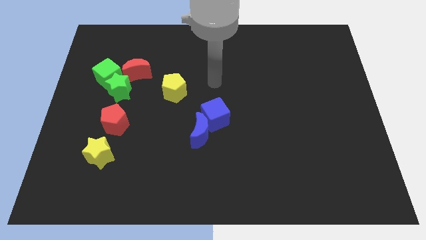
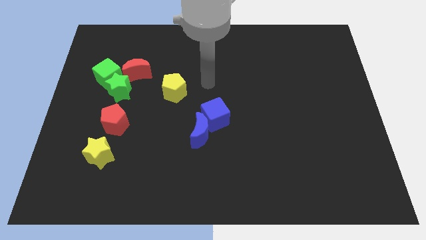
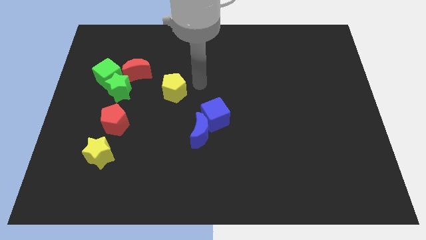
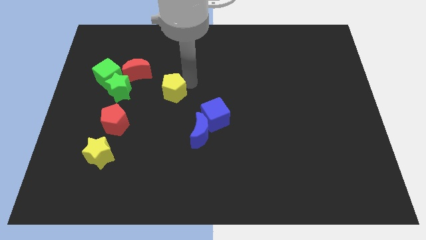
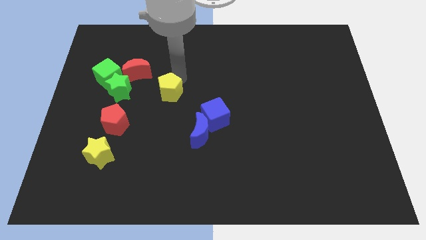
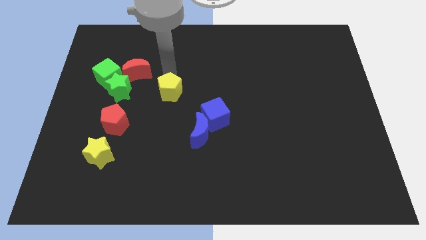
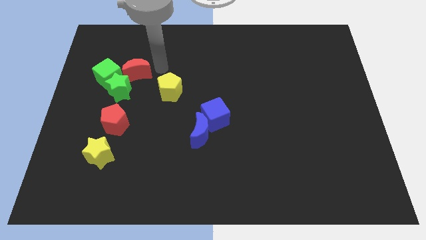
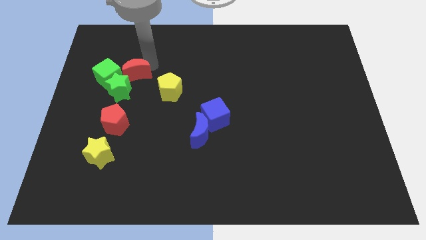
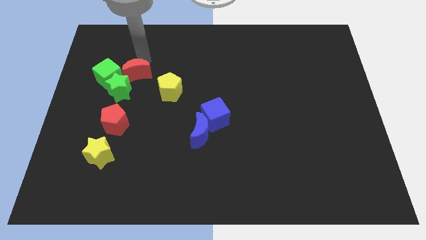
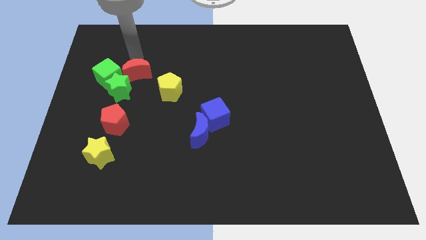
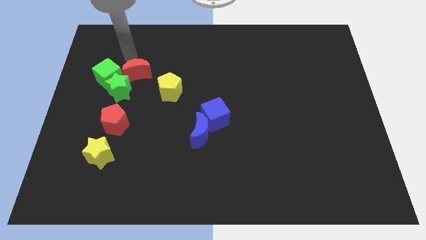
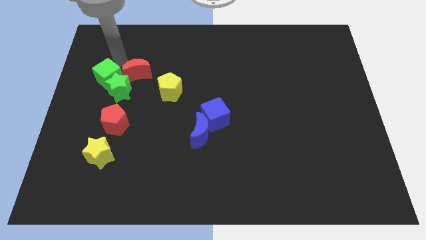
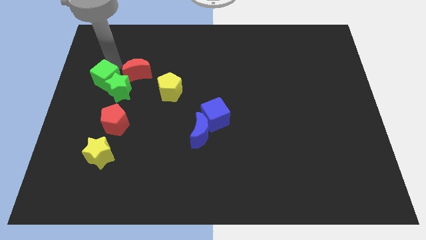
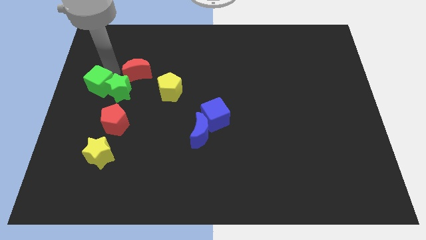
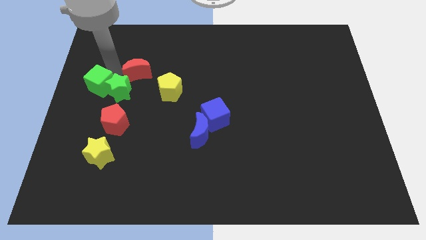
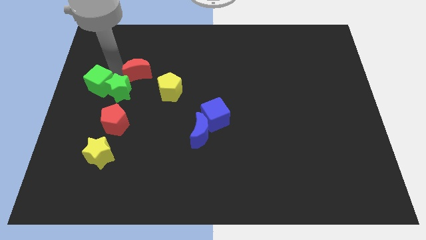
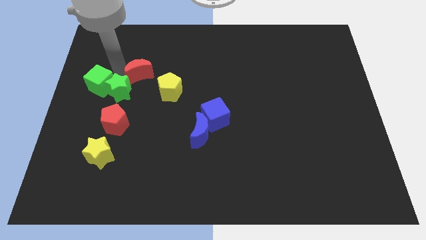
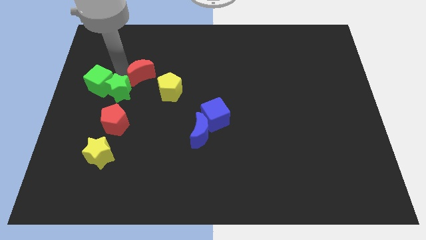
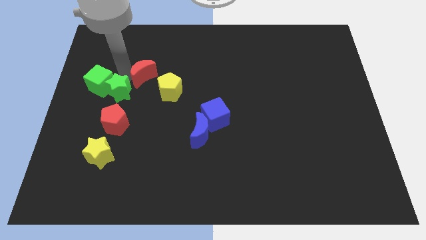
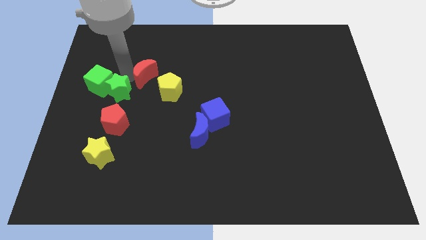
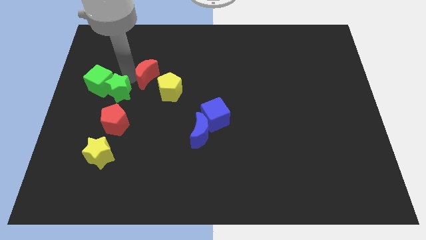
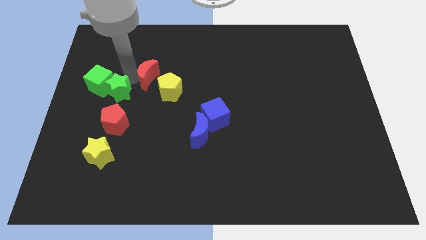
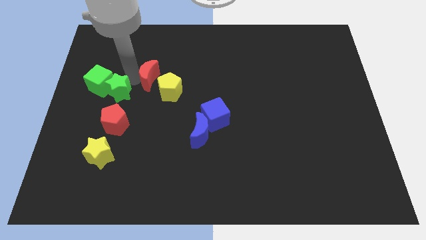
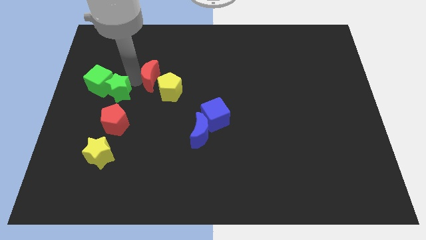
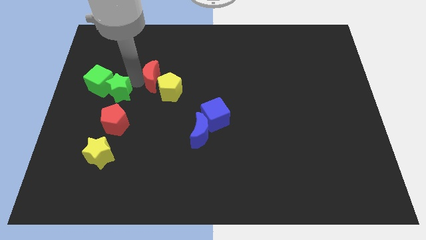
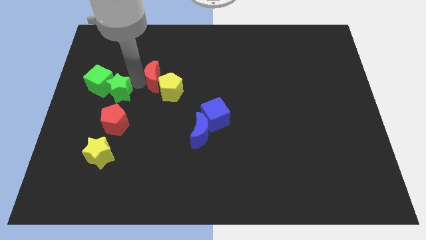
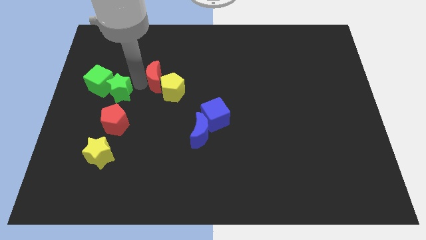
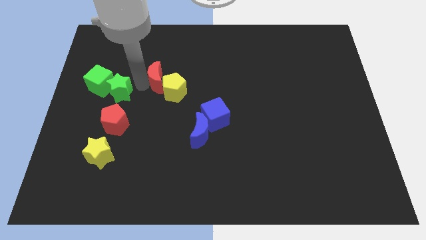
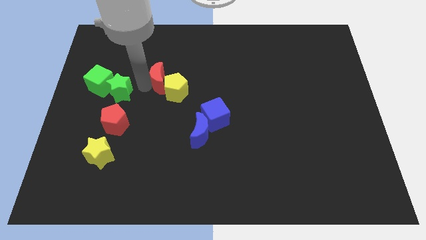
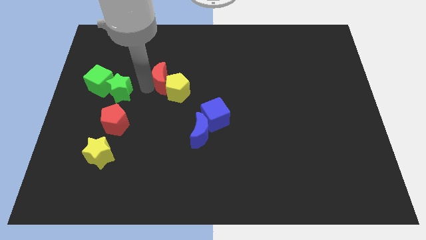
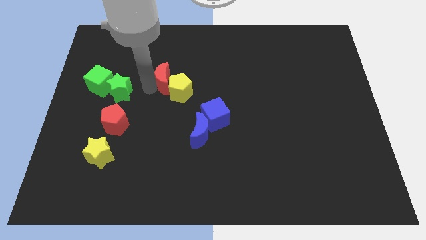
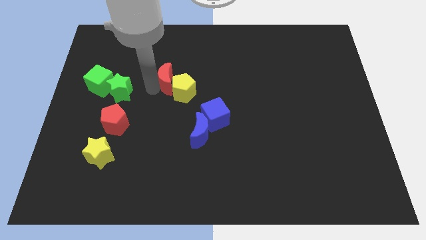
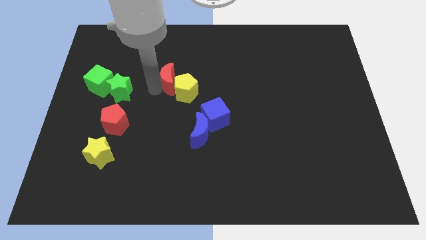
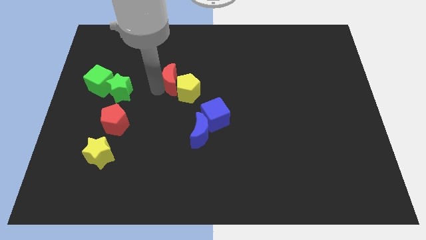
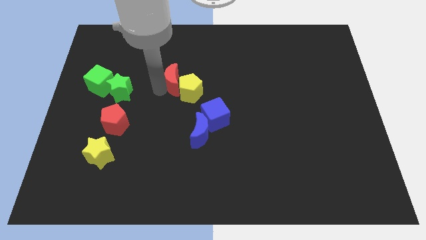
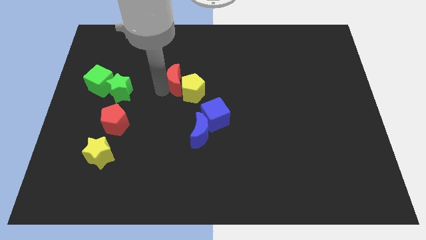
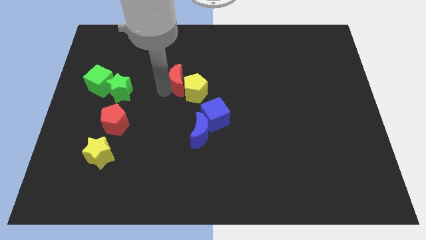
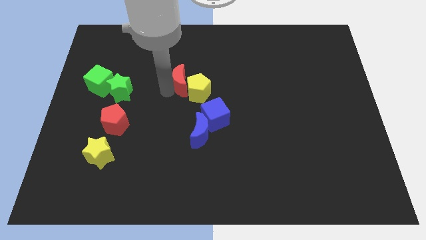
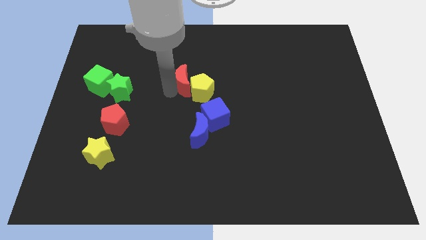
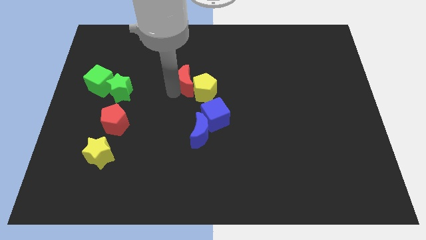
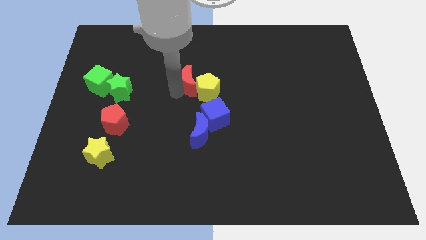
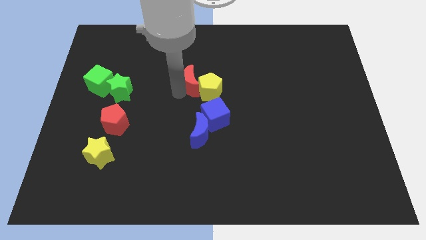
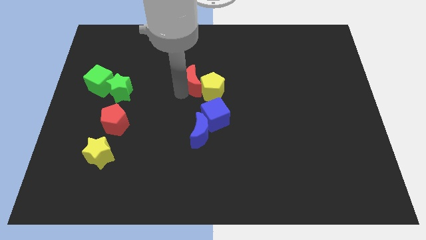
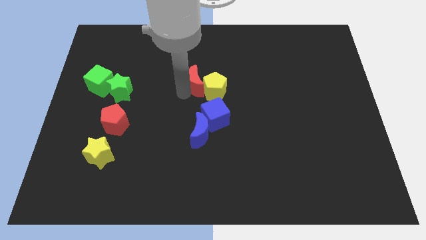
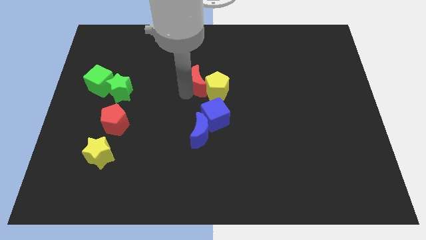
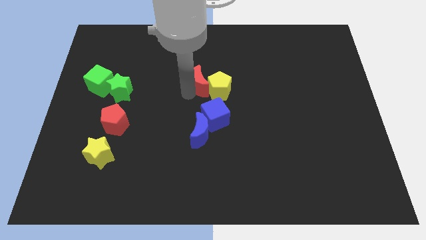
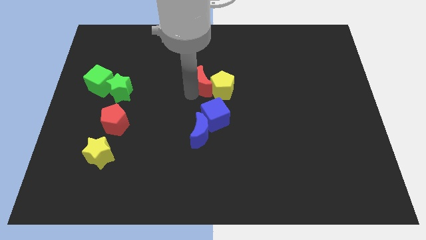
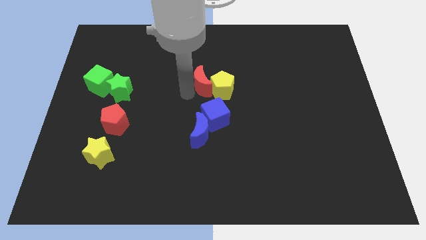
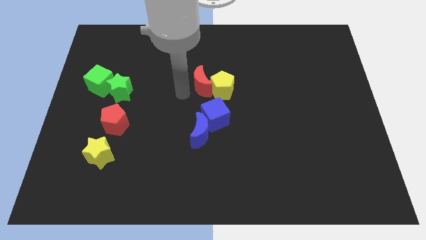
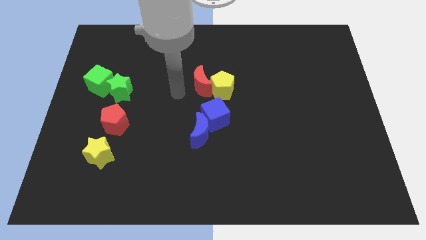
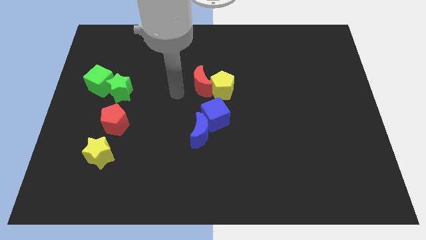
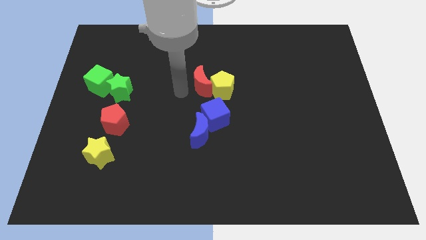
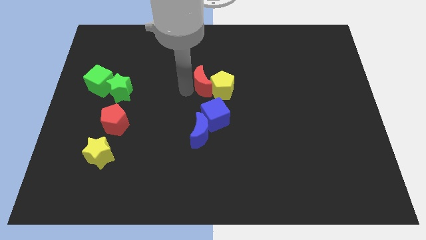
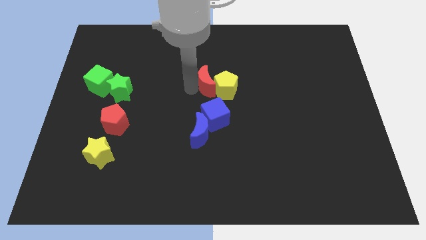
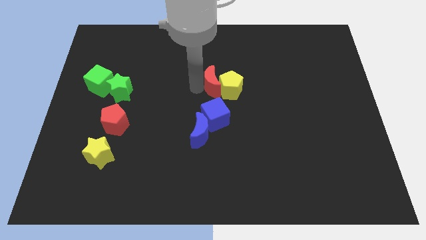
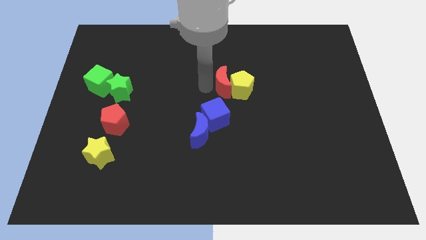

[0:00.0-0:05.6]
slide the red moon to the right

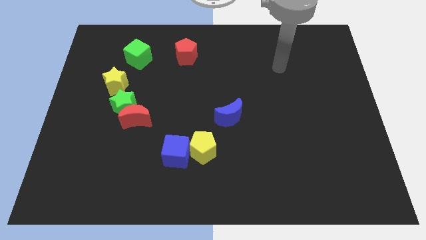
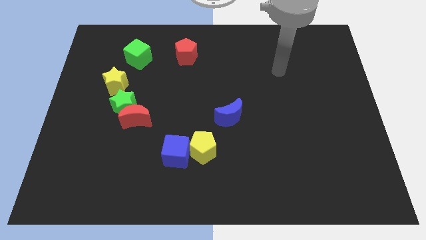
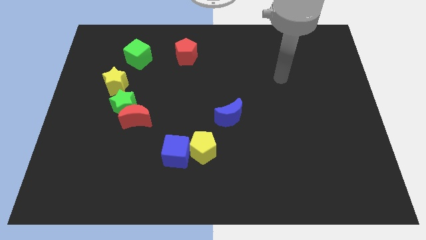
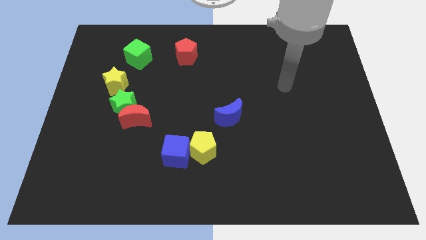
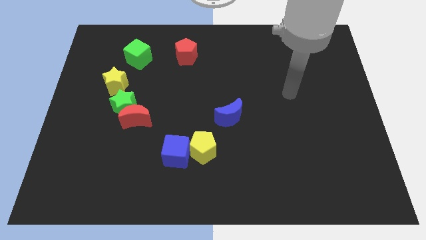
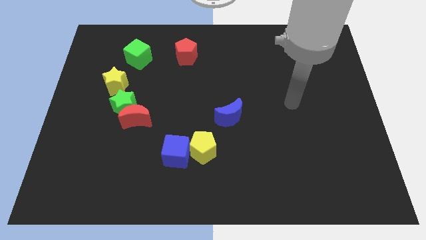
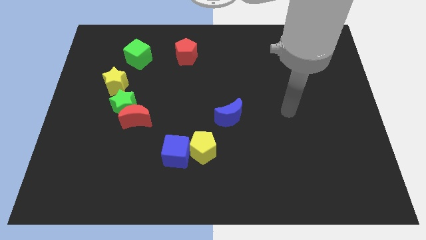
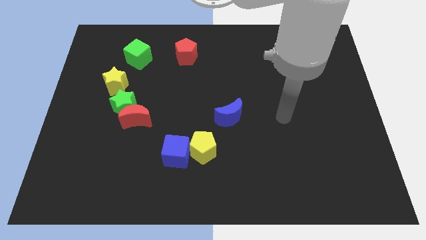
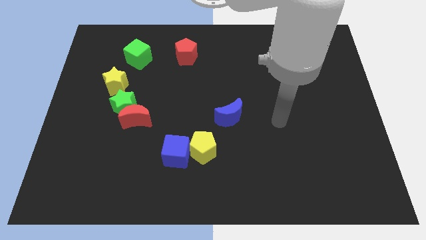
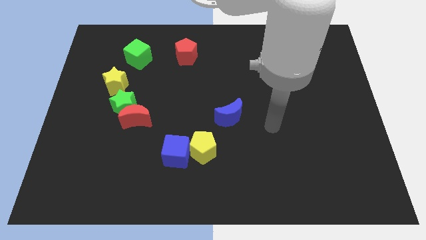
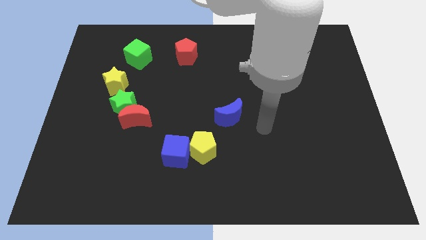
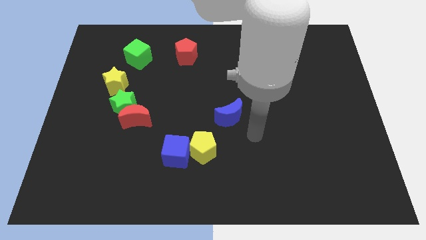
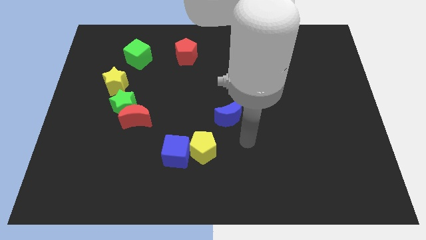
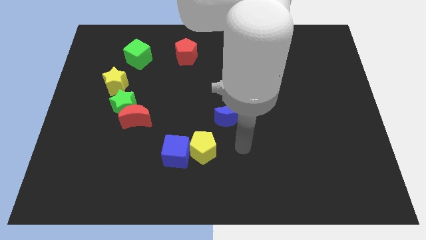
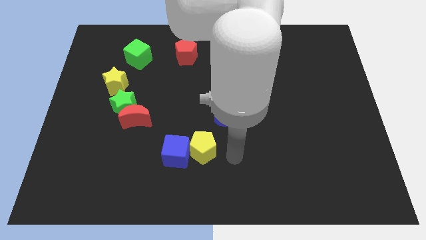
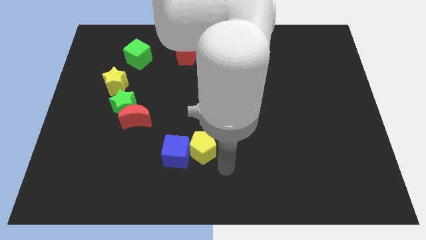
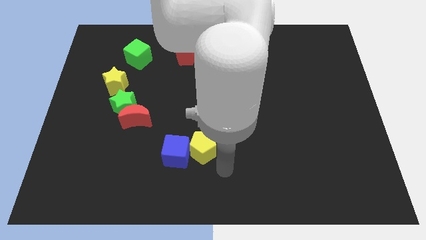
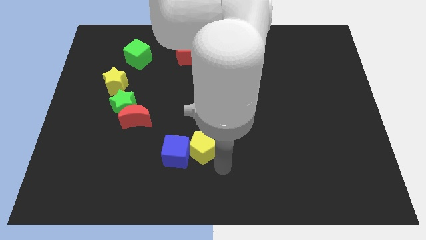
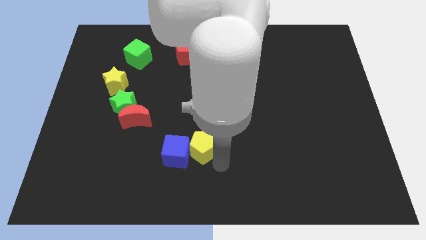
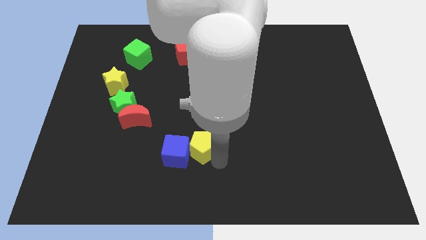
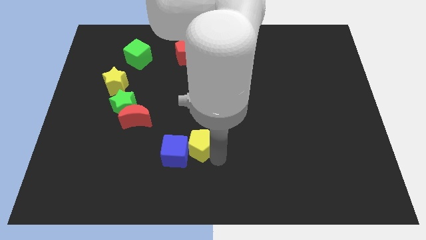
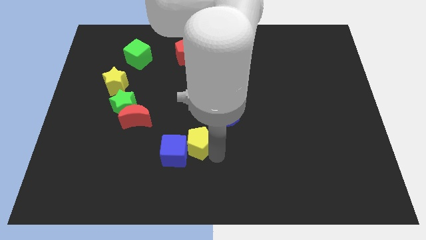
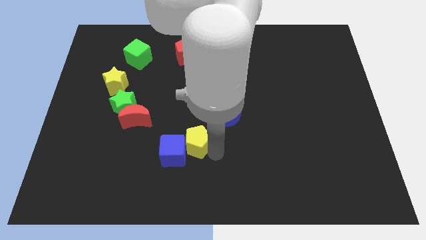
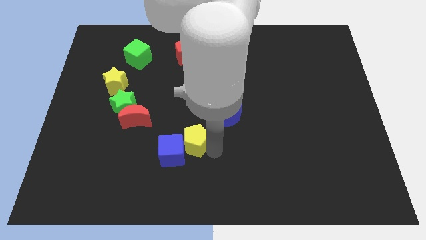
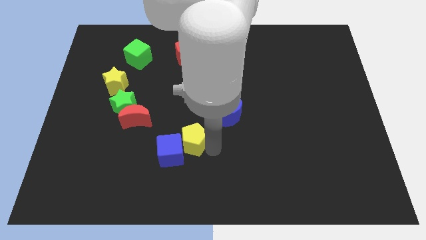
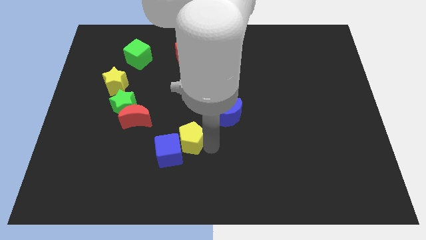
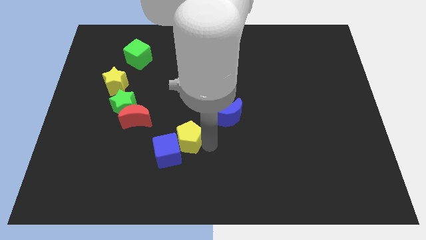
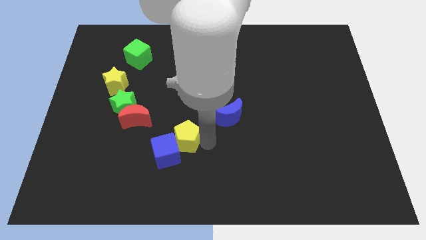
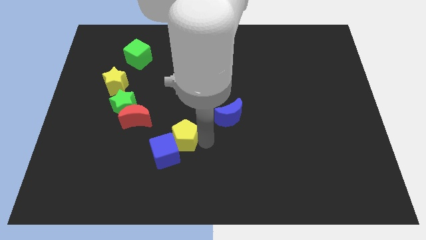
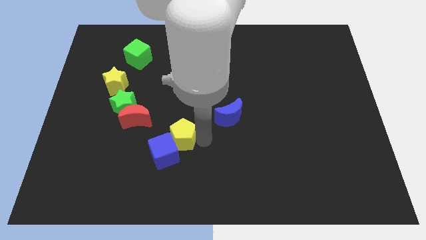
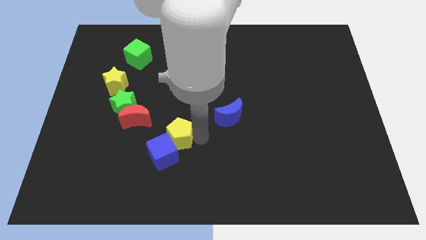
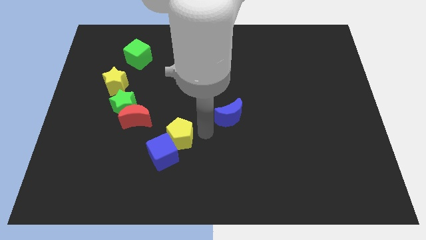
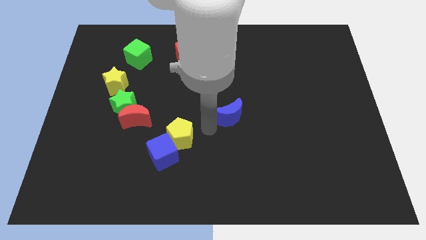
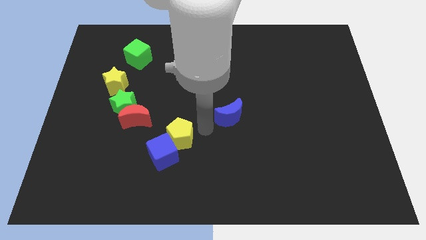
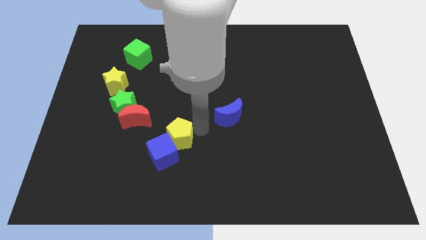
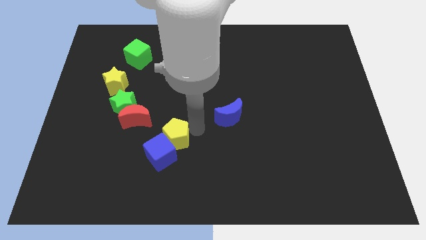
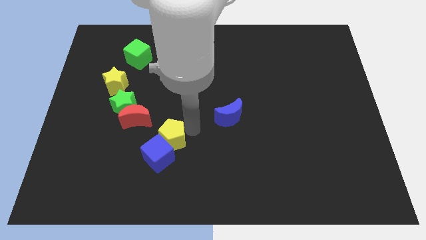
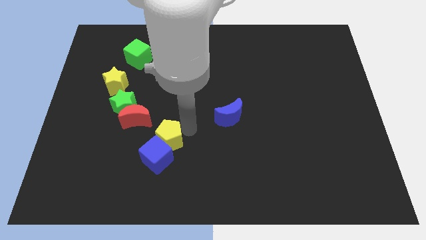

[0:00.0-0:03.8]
slightly slide the yellow pentagon left
